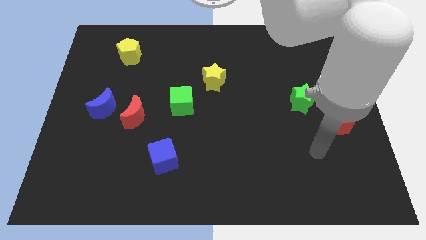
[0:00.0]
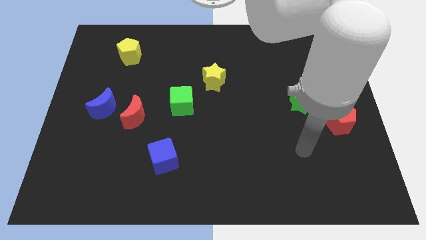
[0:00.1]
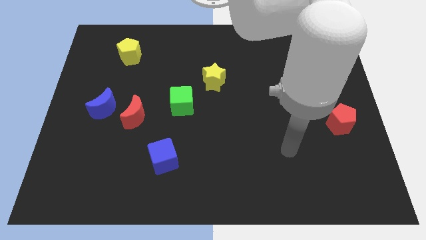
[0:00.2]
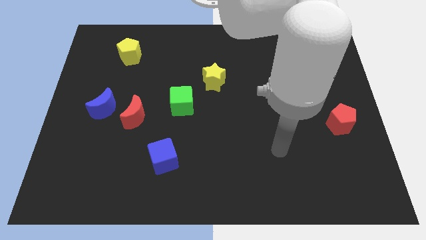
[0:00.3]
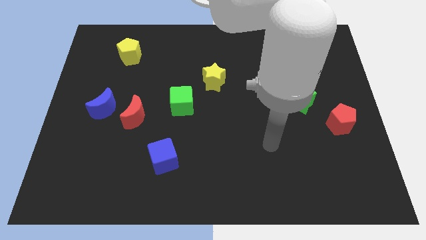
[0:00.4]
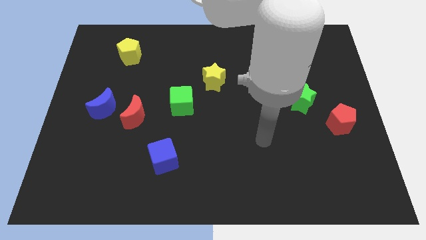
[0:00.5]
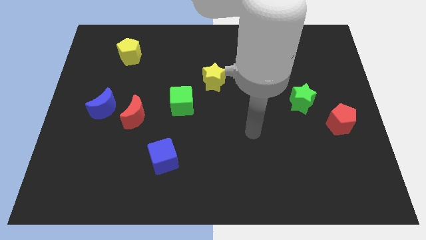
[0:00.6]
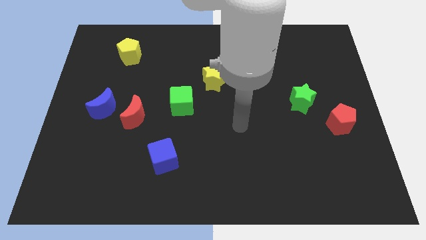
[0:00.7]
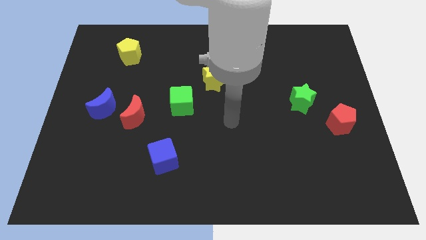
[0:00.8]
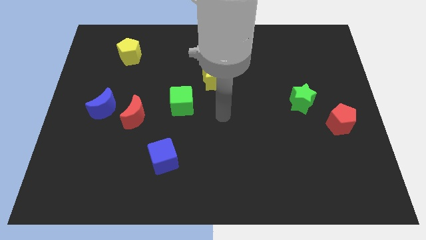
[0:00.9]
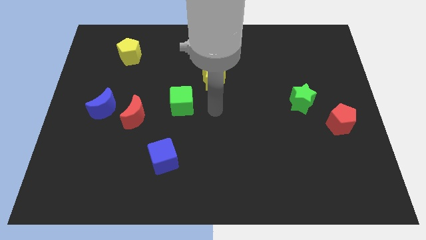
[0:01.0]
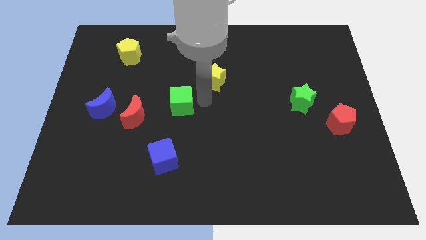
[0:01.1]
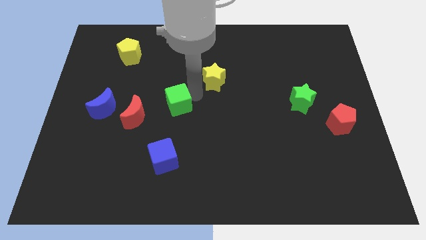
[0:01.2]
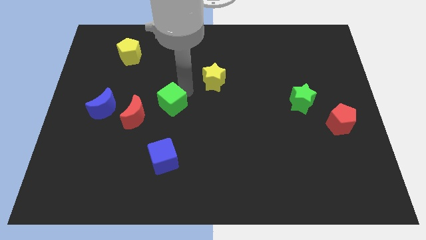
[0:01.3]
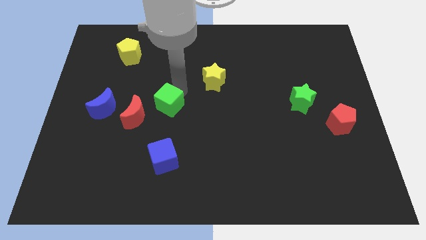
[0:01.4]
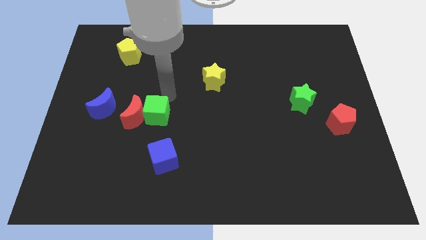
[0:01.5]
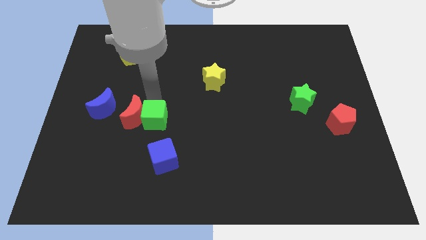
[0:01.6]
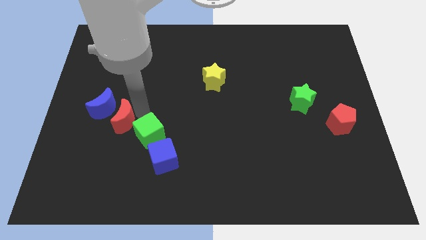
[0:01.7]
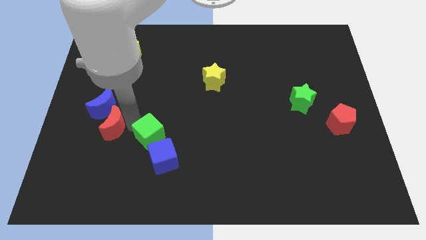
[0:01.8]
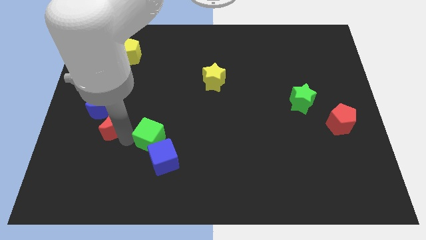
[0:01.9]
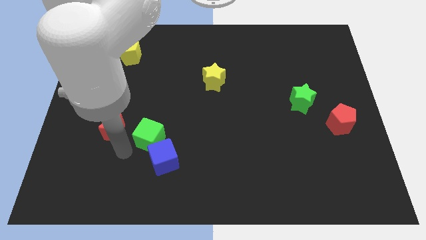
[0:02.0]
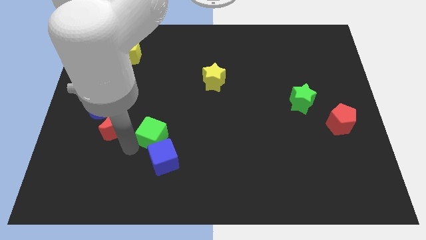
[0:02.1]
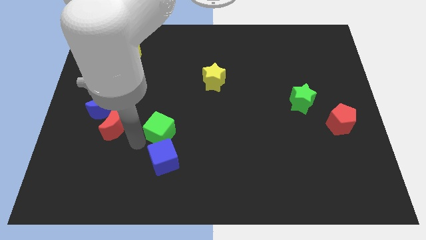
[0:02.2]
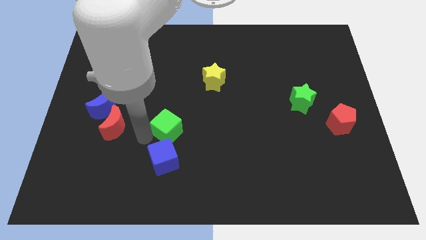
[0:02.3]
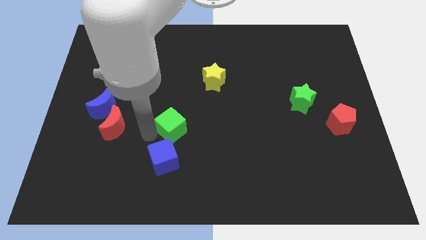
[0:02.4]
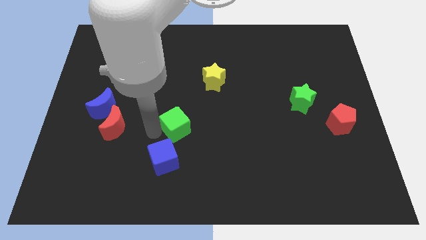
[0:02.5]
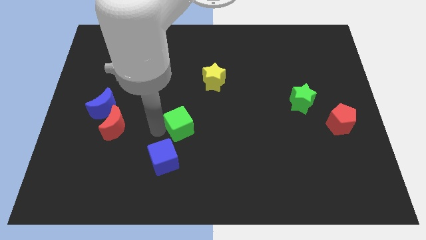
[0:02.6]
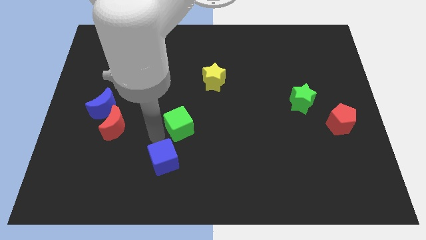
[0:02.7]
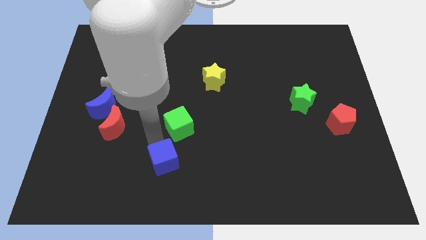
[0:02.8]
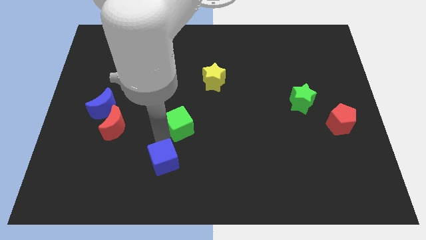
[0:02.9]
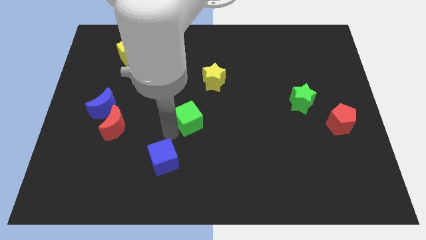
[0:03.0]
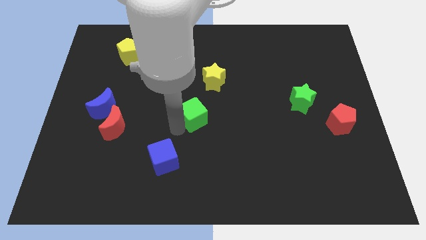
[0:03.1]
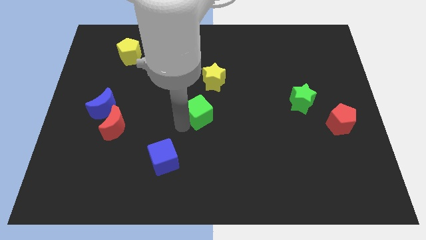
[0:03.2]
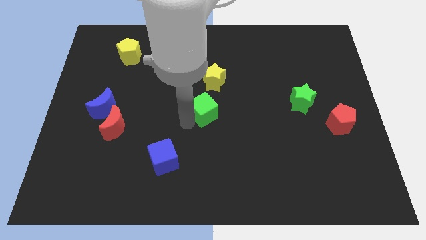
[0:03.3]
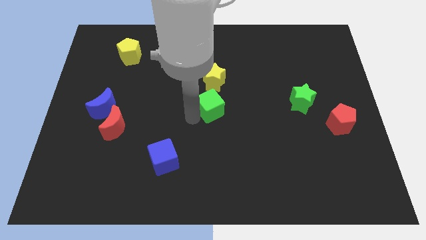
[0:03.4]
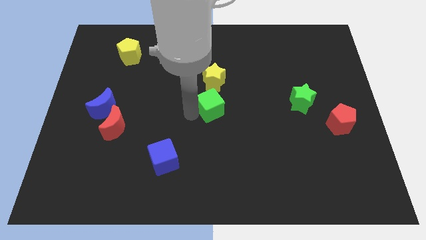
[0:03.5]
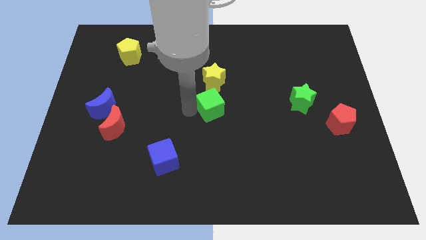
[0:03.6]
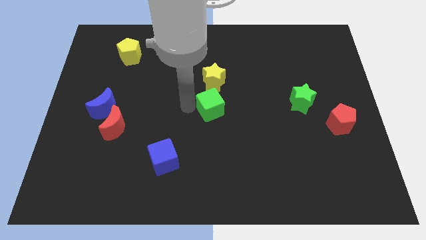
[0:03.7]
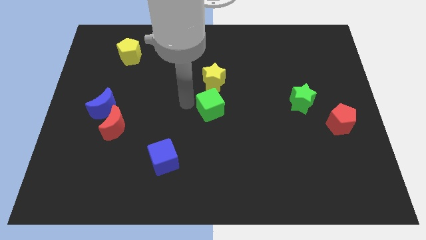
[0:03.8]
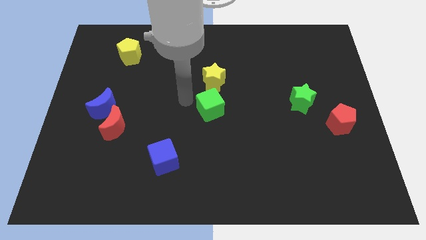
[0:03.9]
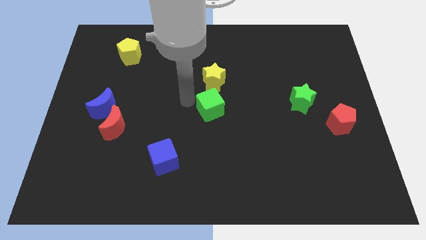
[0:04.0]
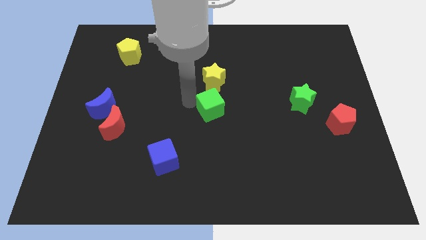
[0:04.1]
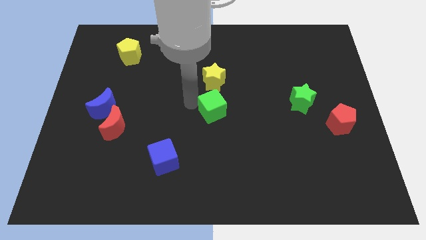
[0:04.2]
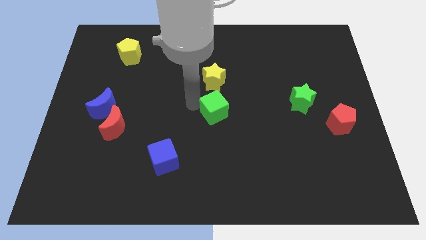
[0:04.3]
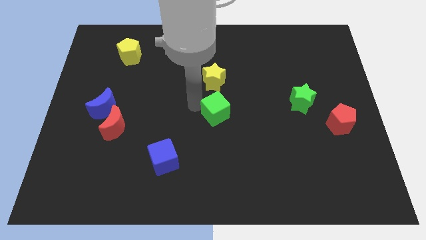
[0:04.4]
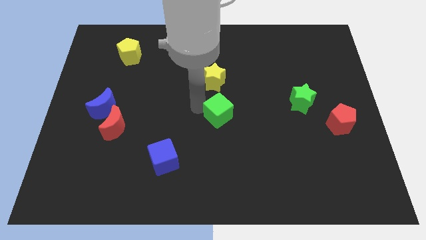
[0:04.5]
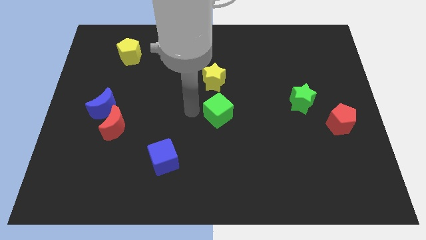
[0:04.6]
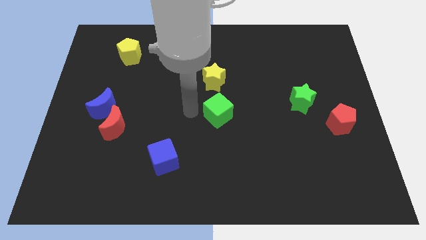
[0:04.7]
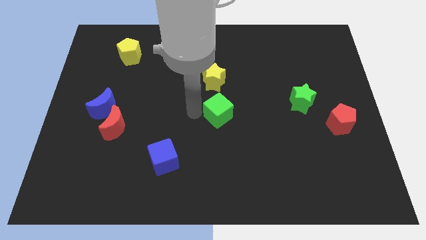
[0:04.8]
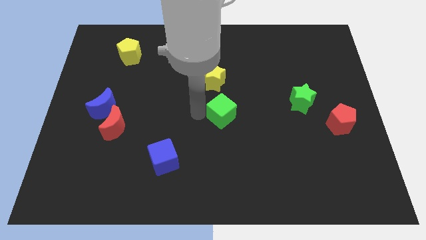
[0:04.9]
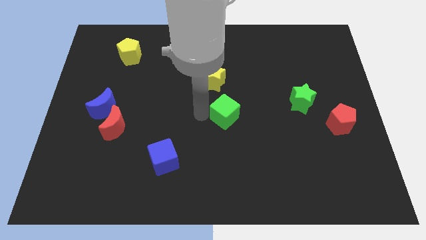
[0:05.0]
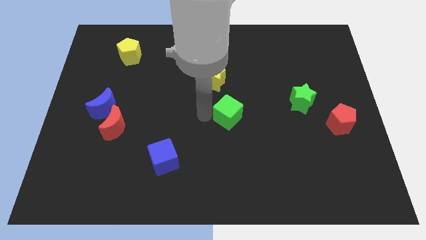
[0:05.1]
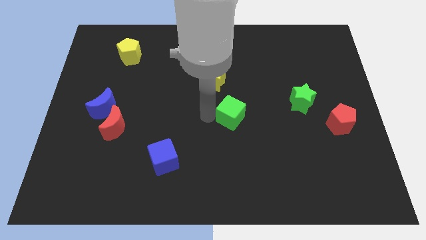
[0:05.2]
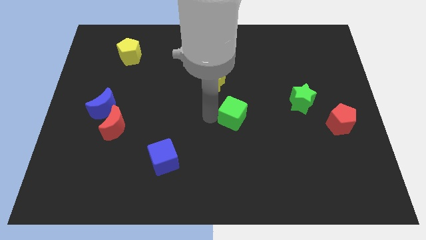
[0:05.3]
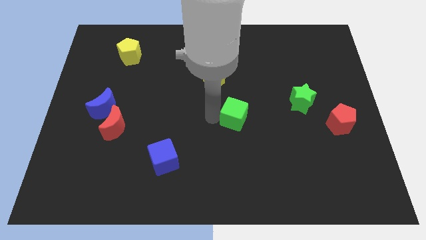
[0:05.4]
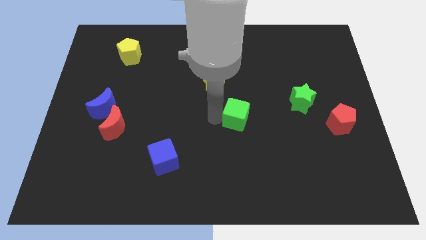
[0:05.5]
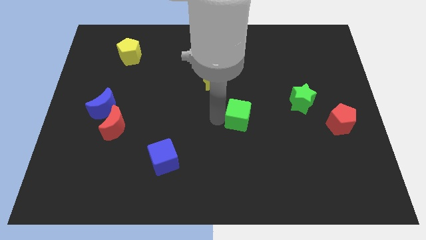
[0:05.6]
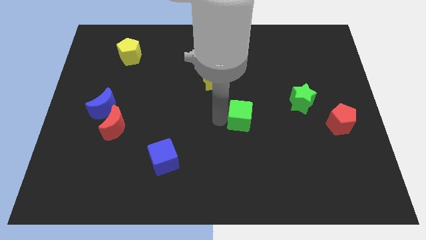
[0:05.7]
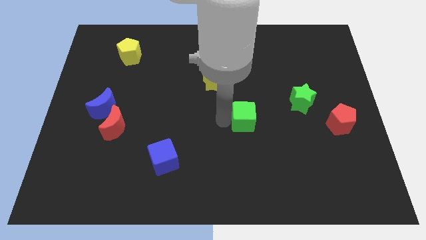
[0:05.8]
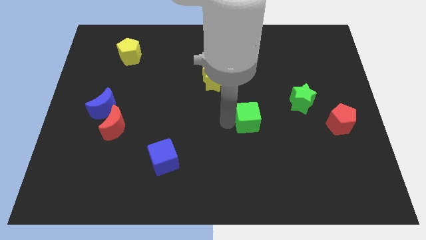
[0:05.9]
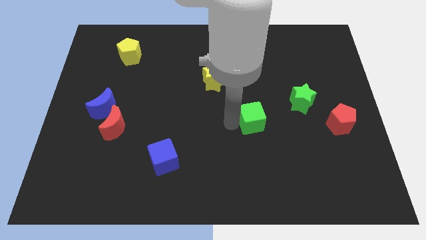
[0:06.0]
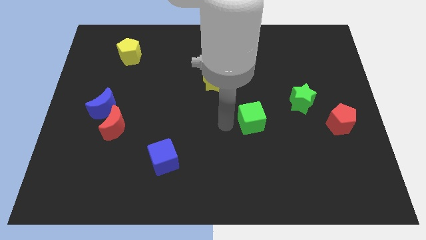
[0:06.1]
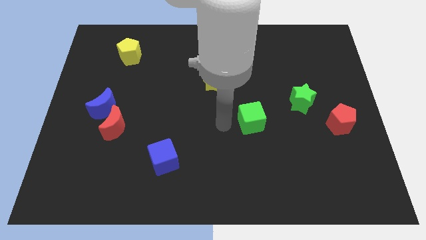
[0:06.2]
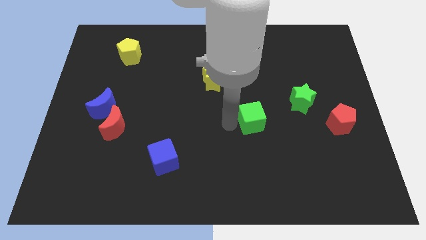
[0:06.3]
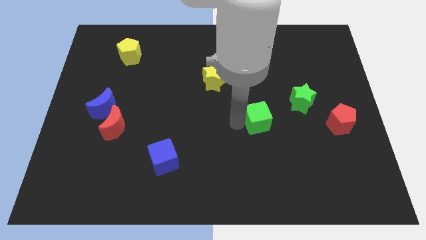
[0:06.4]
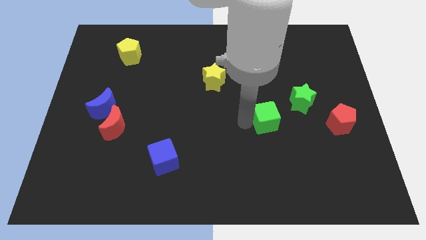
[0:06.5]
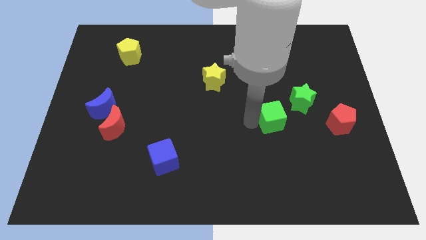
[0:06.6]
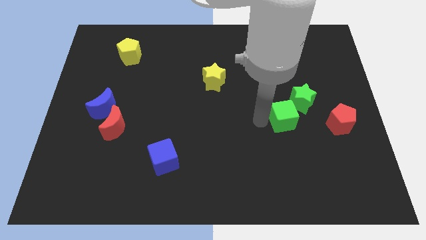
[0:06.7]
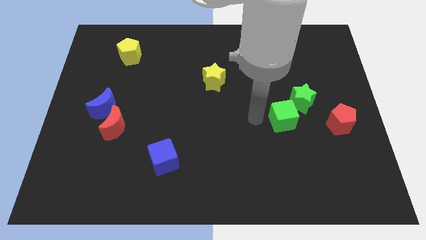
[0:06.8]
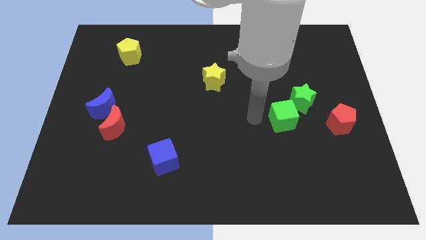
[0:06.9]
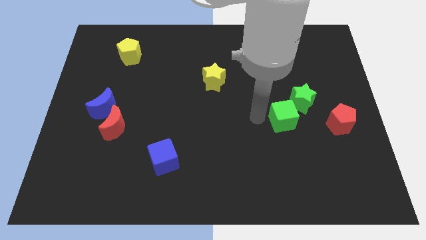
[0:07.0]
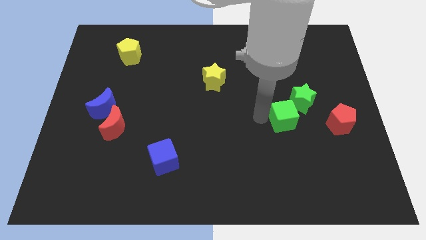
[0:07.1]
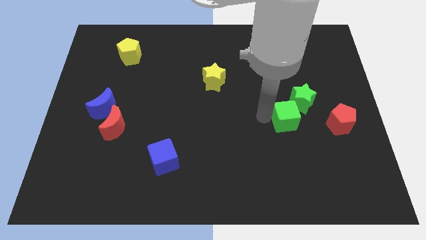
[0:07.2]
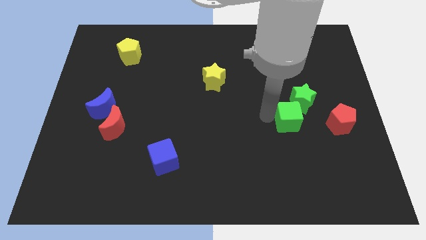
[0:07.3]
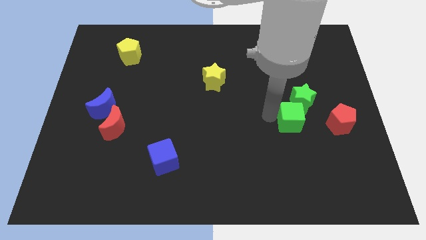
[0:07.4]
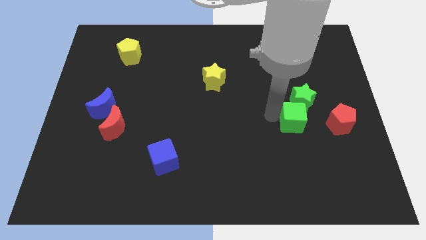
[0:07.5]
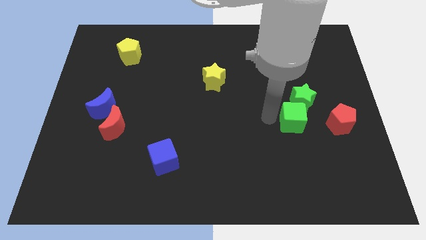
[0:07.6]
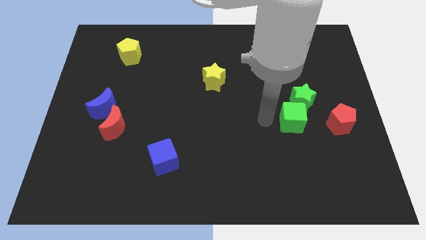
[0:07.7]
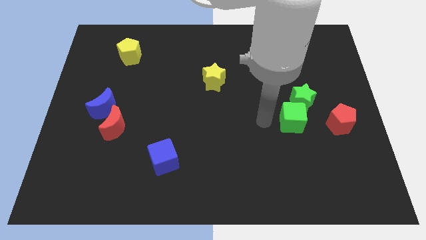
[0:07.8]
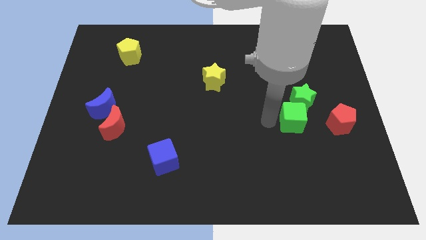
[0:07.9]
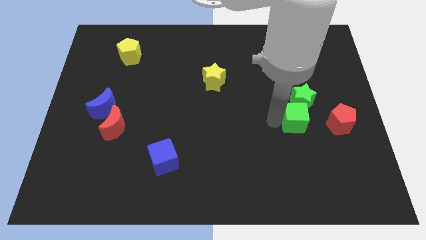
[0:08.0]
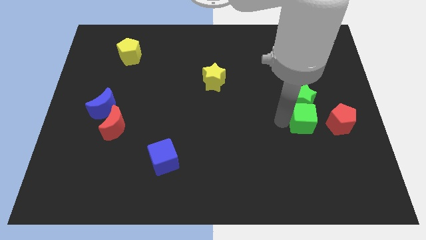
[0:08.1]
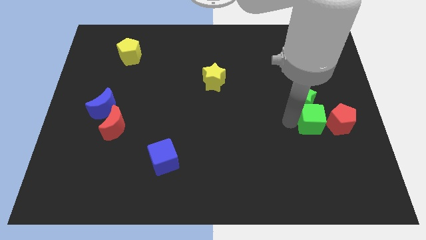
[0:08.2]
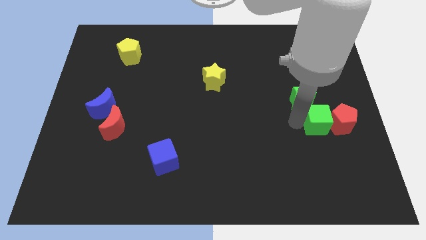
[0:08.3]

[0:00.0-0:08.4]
slide the green cube towards the red pentagon
